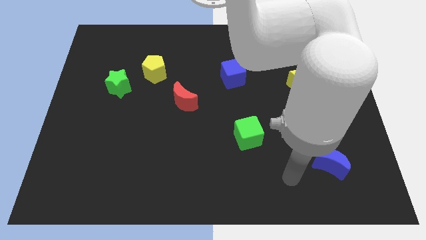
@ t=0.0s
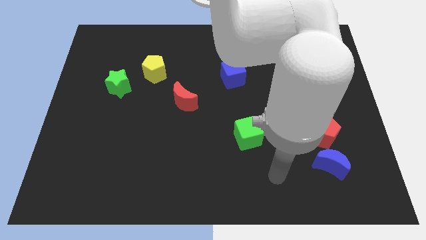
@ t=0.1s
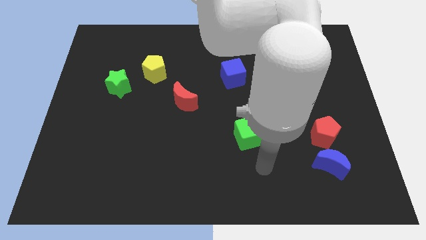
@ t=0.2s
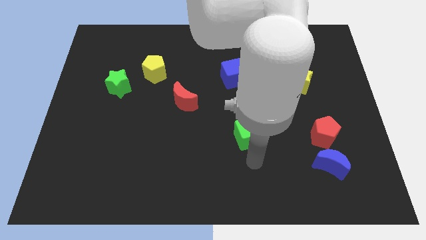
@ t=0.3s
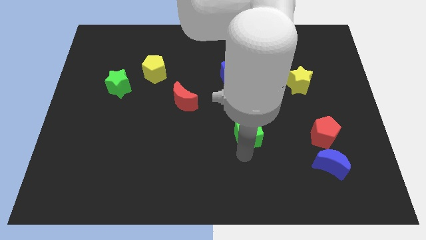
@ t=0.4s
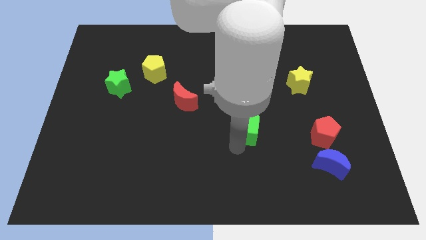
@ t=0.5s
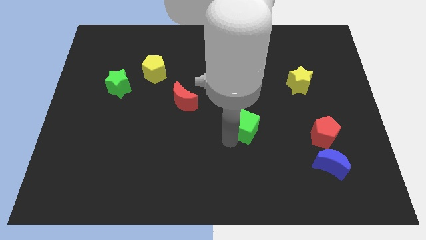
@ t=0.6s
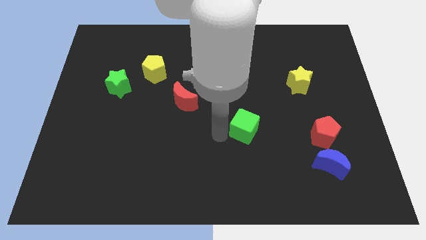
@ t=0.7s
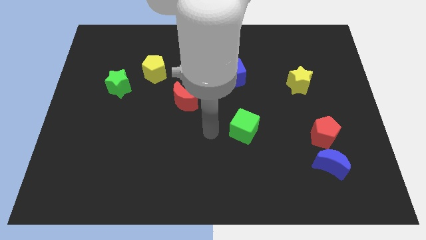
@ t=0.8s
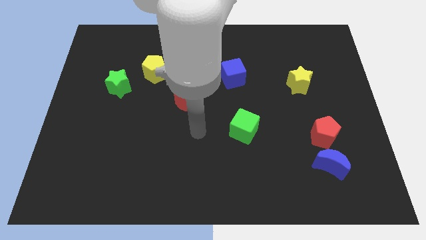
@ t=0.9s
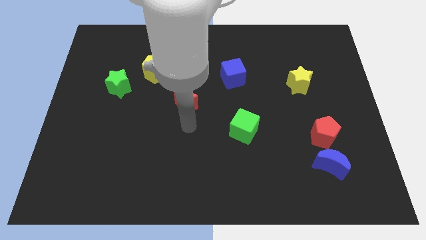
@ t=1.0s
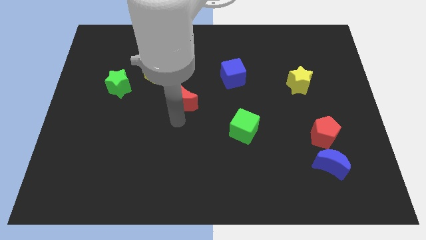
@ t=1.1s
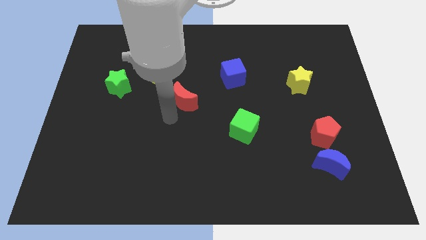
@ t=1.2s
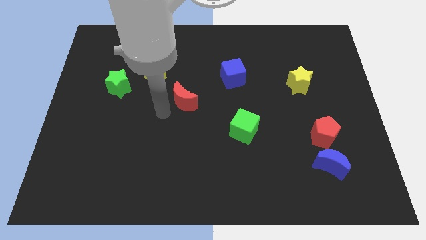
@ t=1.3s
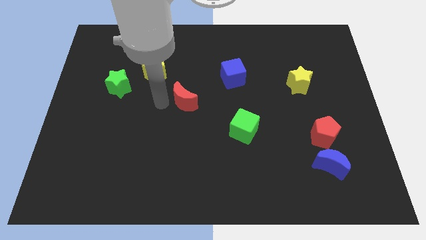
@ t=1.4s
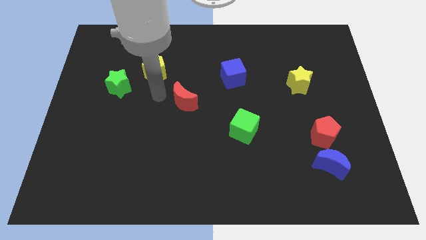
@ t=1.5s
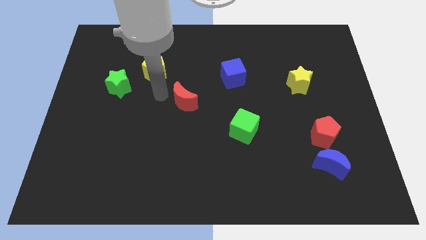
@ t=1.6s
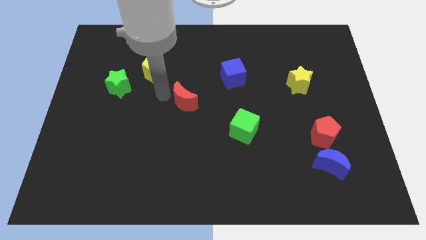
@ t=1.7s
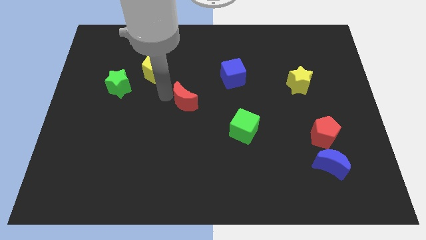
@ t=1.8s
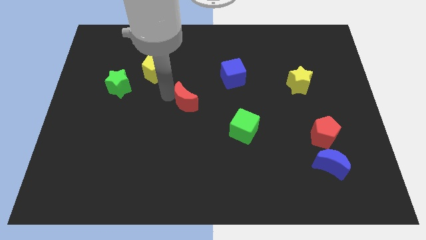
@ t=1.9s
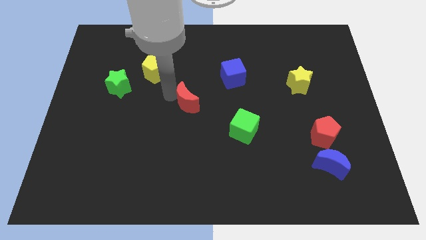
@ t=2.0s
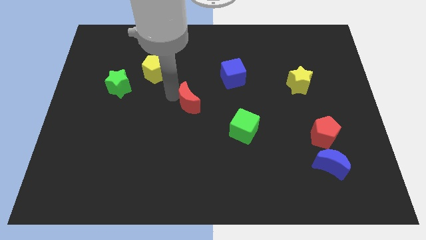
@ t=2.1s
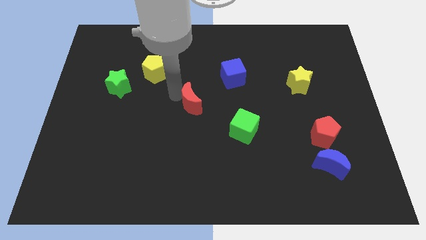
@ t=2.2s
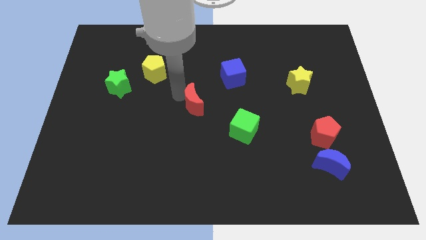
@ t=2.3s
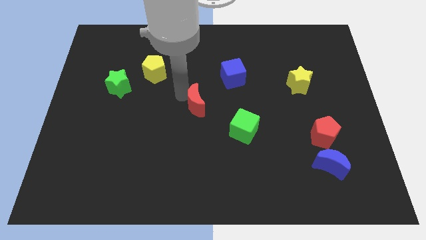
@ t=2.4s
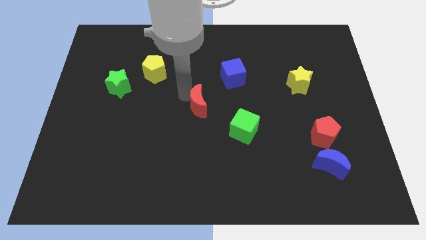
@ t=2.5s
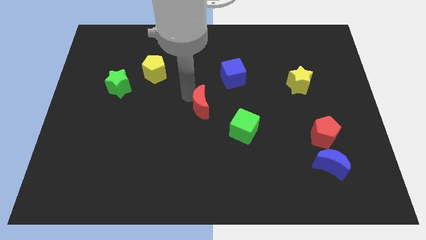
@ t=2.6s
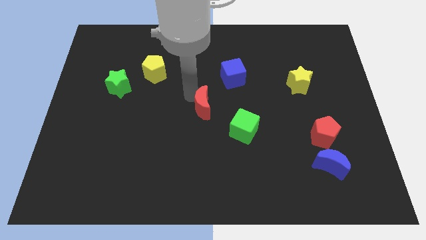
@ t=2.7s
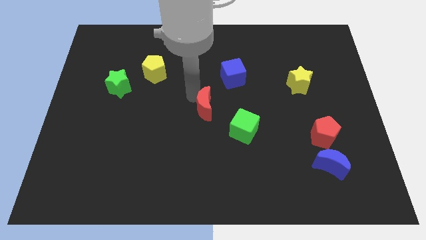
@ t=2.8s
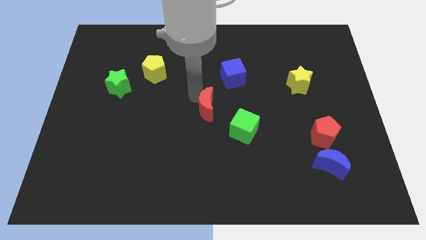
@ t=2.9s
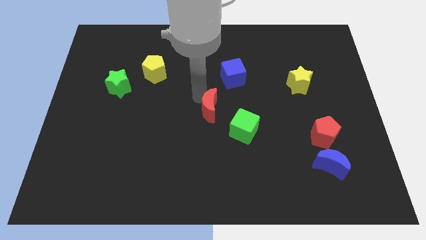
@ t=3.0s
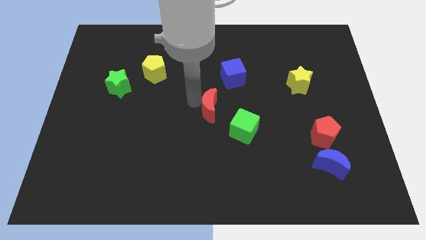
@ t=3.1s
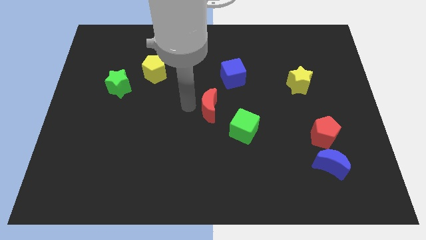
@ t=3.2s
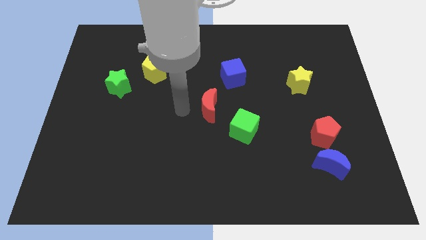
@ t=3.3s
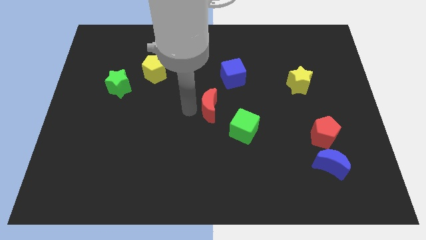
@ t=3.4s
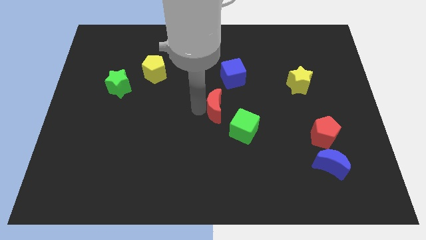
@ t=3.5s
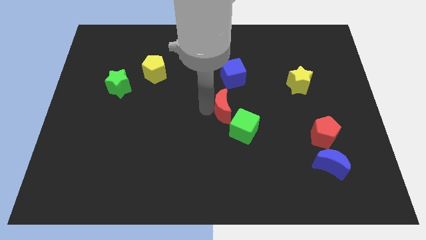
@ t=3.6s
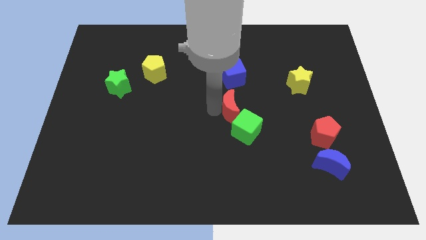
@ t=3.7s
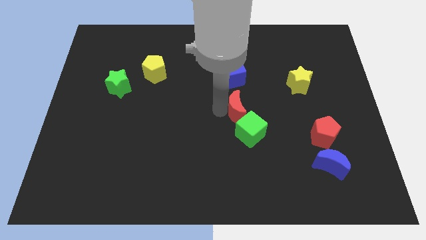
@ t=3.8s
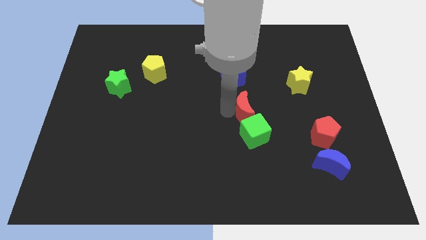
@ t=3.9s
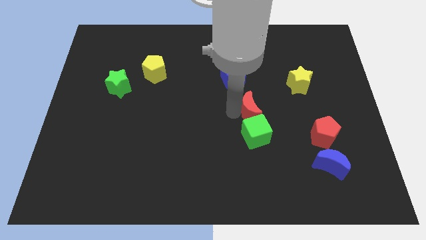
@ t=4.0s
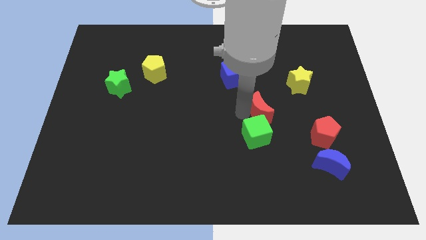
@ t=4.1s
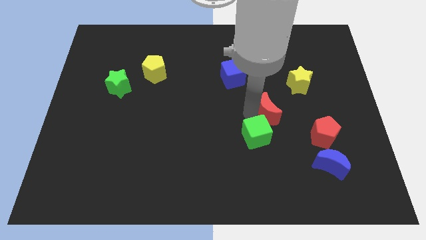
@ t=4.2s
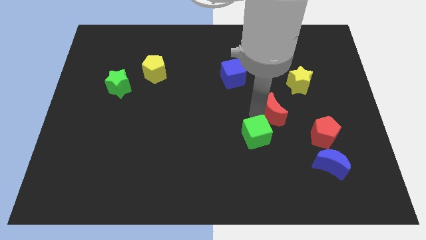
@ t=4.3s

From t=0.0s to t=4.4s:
push the red moon to the right

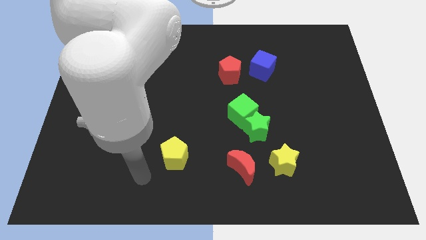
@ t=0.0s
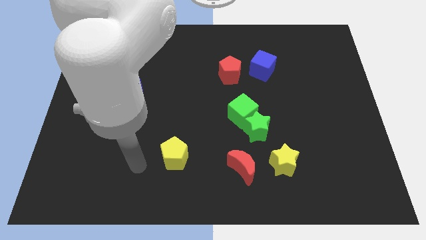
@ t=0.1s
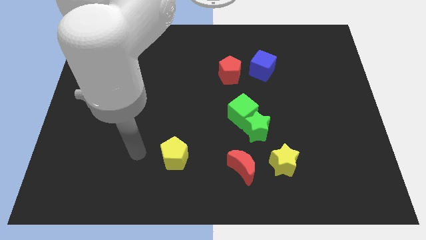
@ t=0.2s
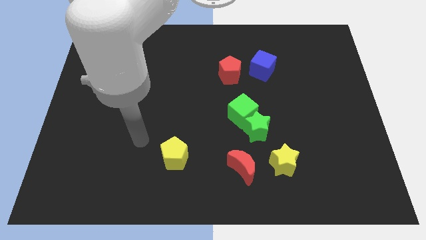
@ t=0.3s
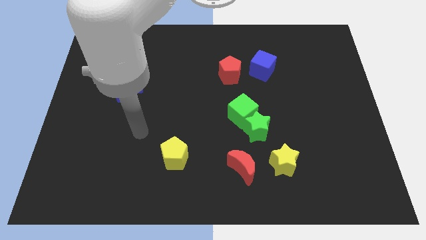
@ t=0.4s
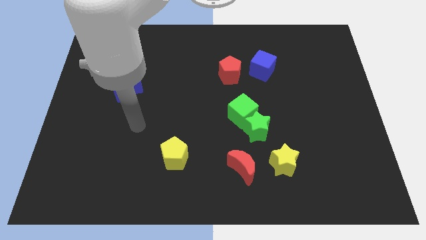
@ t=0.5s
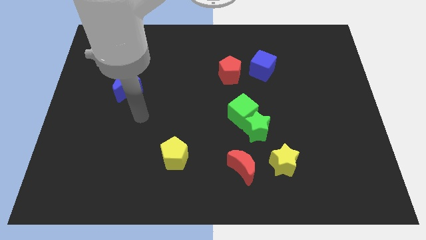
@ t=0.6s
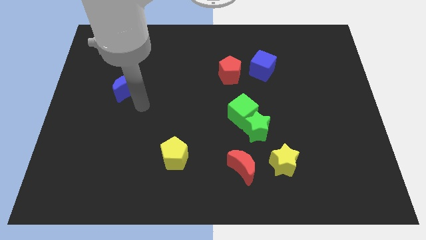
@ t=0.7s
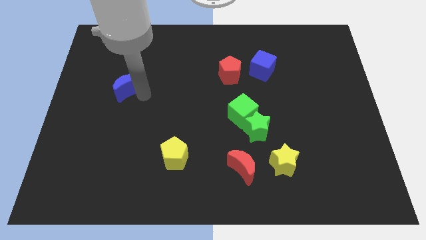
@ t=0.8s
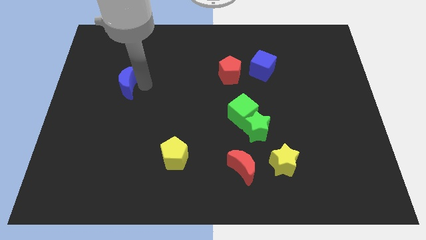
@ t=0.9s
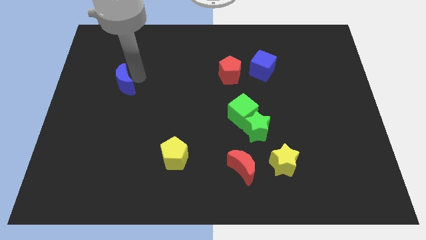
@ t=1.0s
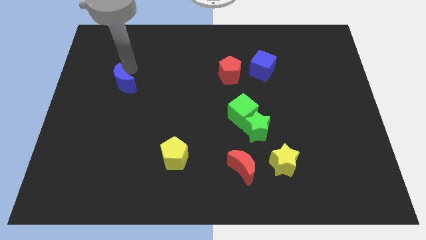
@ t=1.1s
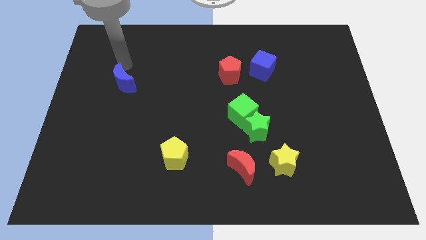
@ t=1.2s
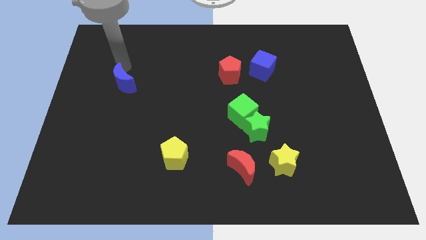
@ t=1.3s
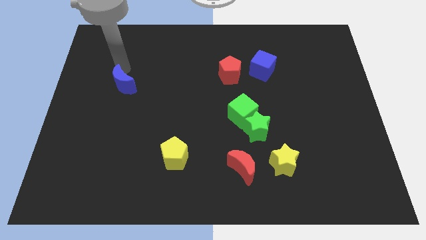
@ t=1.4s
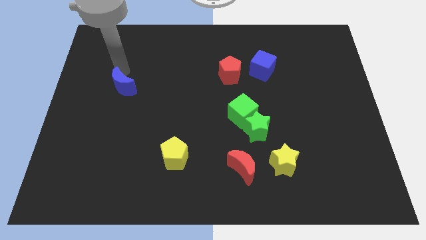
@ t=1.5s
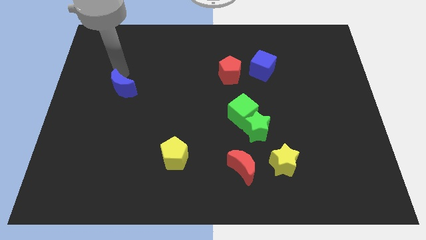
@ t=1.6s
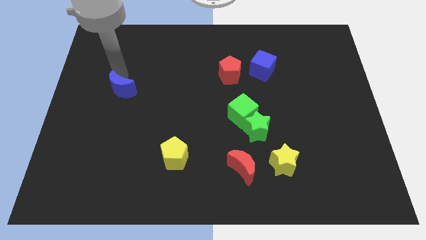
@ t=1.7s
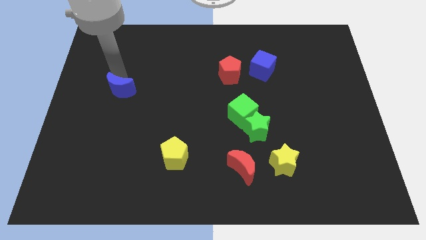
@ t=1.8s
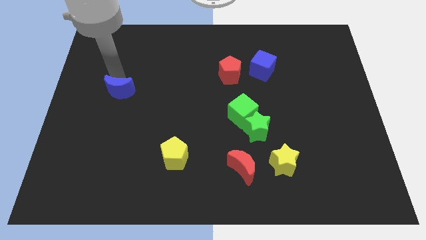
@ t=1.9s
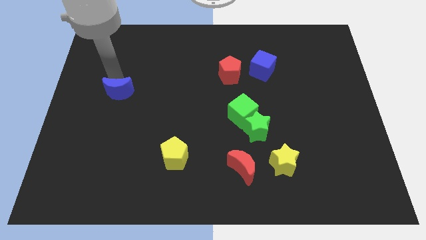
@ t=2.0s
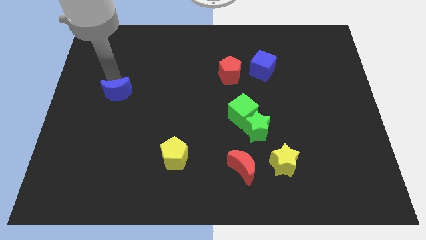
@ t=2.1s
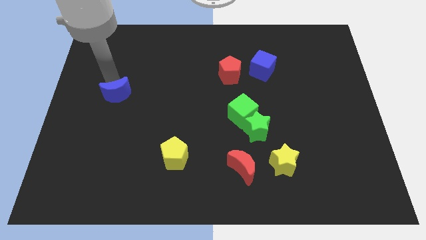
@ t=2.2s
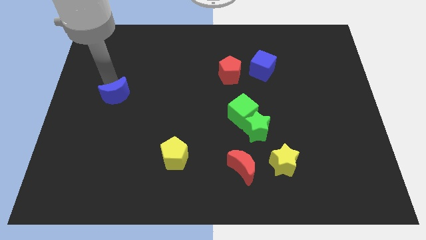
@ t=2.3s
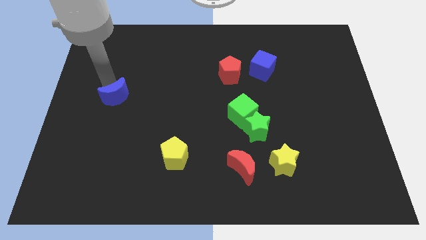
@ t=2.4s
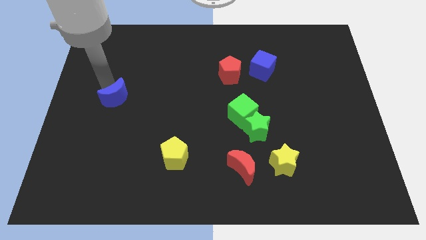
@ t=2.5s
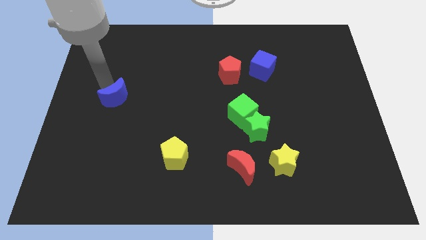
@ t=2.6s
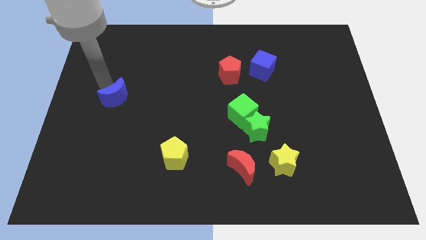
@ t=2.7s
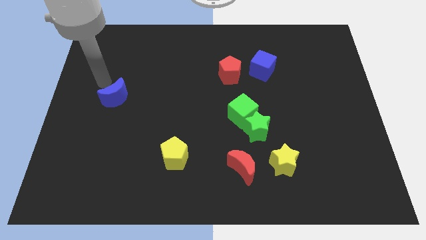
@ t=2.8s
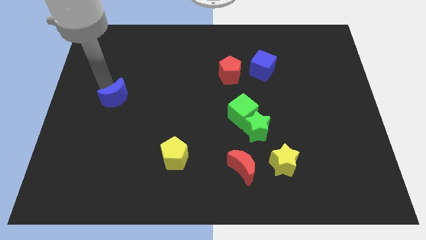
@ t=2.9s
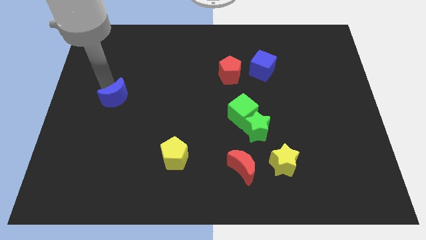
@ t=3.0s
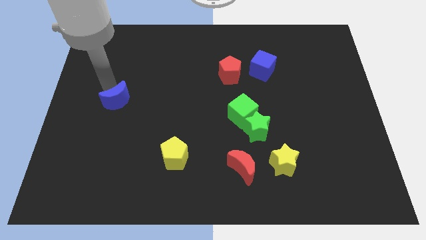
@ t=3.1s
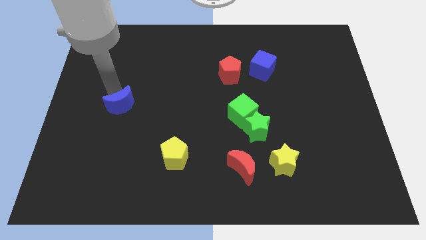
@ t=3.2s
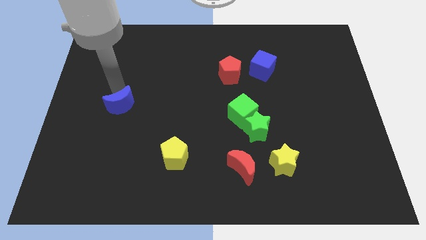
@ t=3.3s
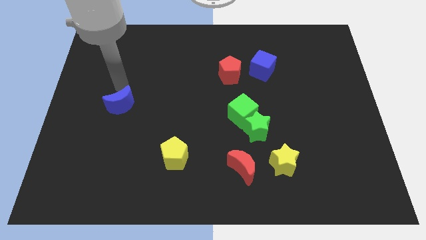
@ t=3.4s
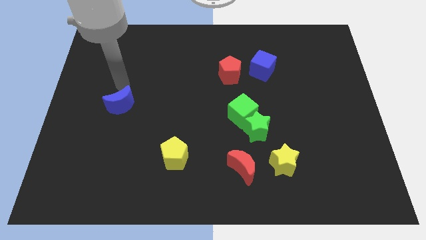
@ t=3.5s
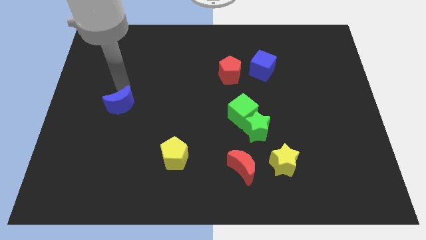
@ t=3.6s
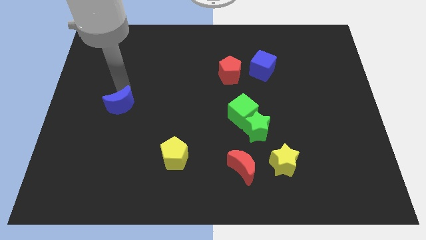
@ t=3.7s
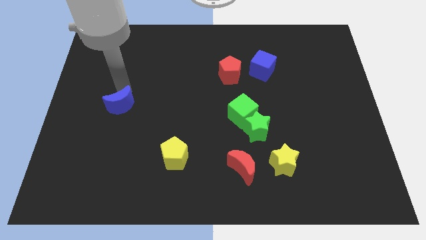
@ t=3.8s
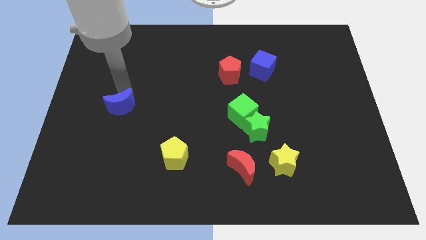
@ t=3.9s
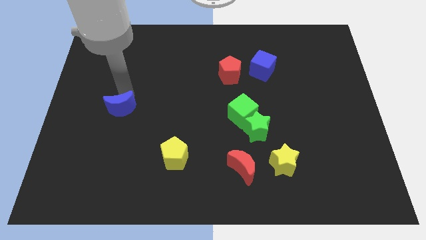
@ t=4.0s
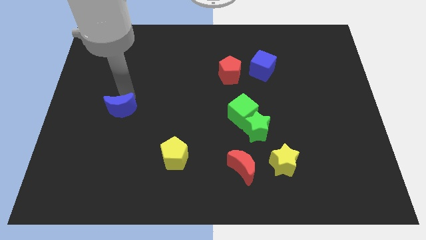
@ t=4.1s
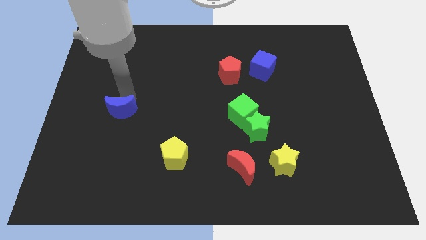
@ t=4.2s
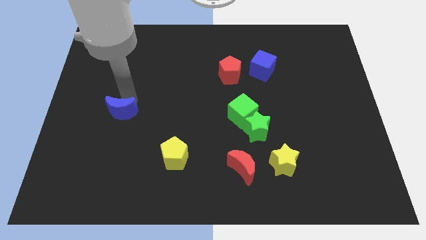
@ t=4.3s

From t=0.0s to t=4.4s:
slightly push the blue moon downwards
